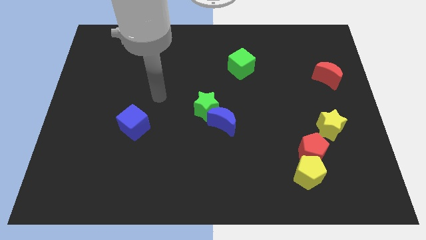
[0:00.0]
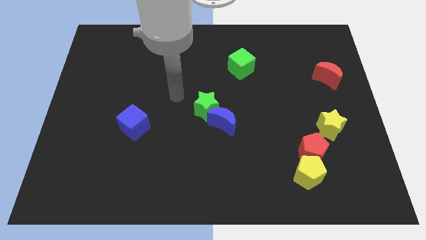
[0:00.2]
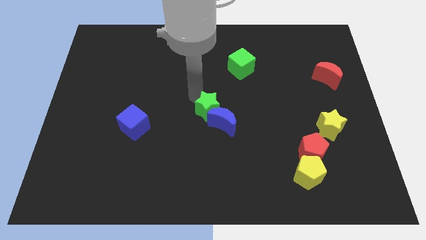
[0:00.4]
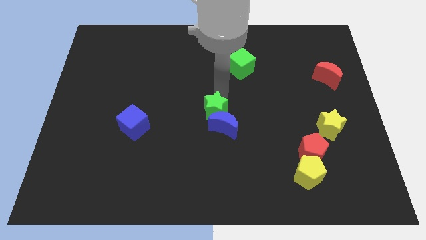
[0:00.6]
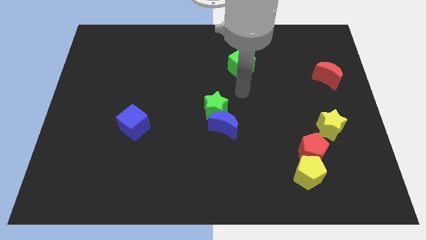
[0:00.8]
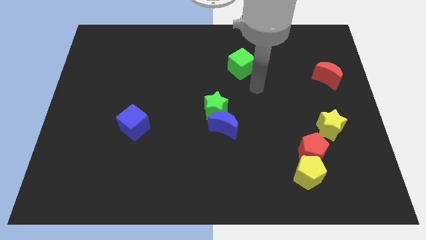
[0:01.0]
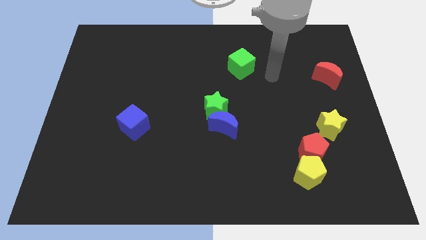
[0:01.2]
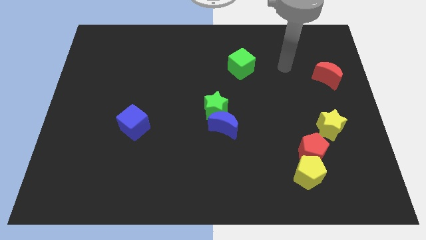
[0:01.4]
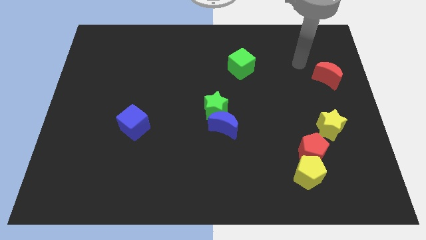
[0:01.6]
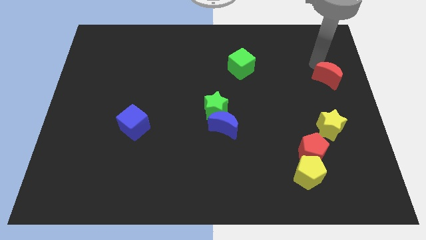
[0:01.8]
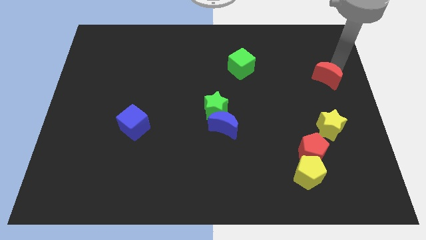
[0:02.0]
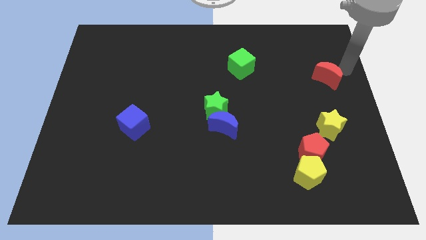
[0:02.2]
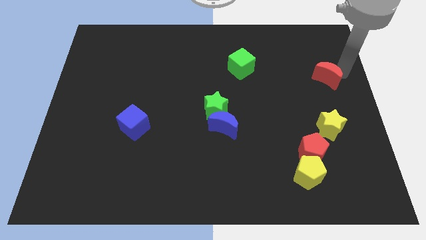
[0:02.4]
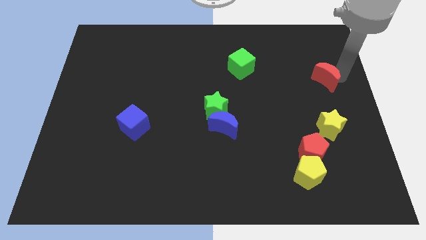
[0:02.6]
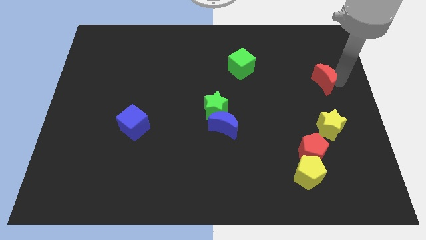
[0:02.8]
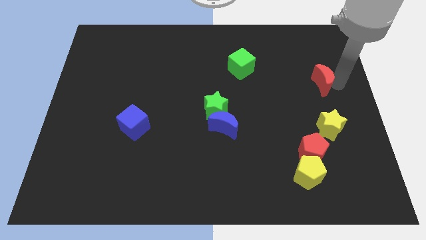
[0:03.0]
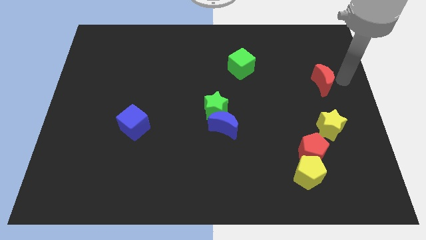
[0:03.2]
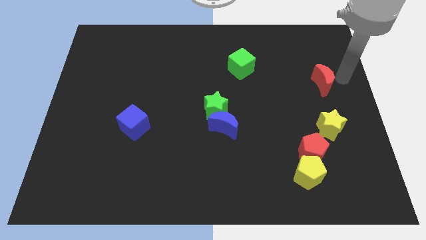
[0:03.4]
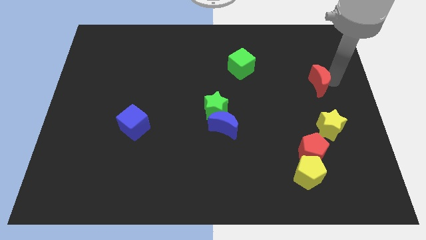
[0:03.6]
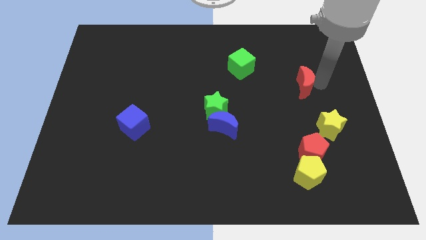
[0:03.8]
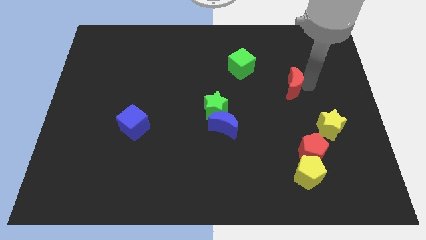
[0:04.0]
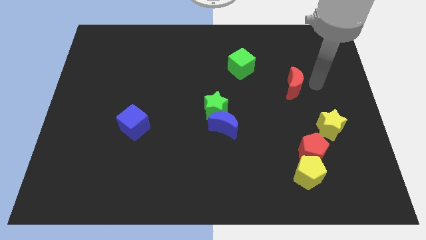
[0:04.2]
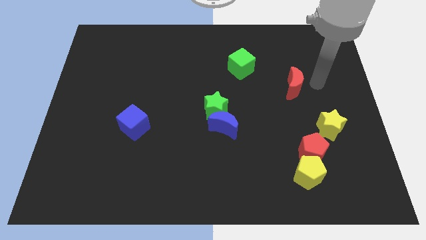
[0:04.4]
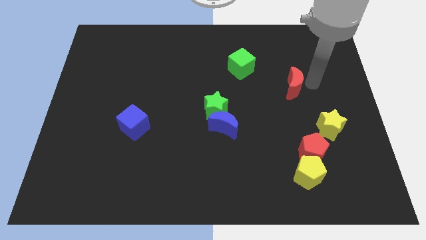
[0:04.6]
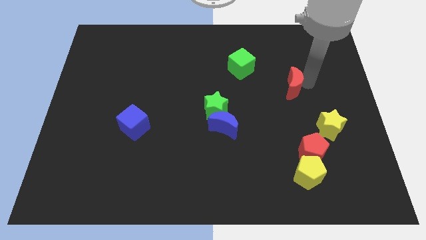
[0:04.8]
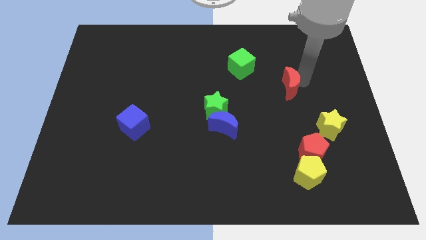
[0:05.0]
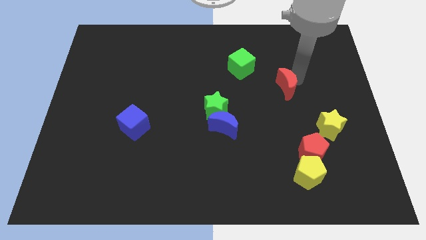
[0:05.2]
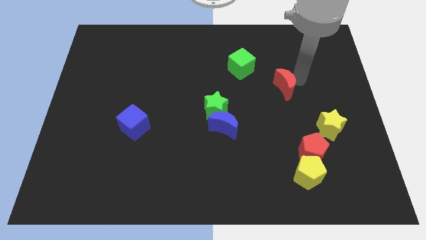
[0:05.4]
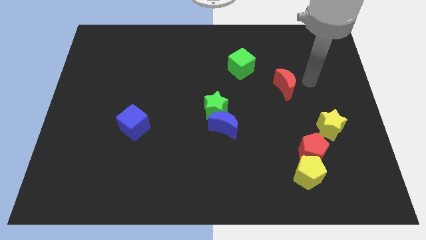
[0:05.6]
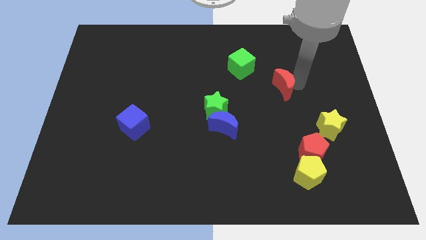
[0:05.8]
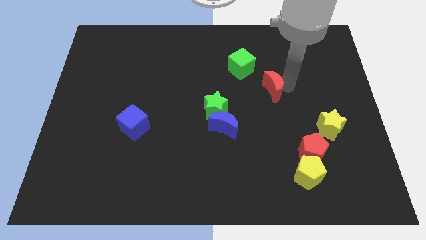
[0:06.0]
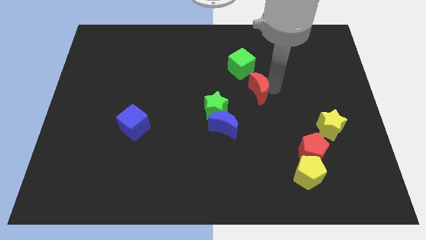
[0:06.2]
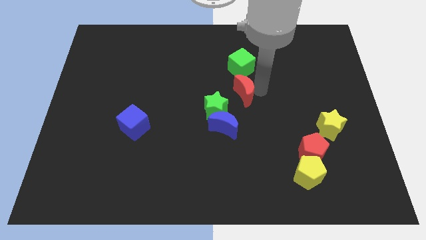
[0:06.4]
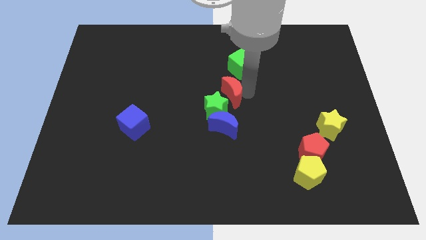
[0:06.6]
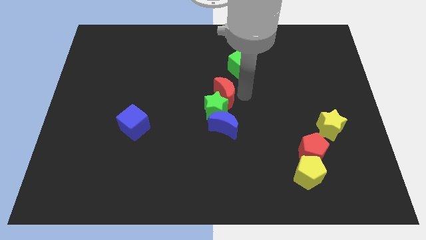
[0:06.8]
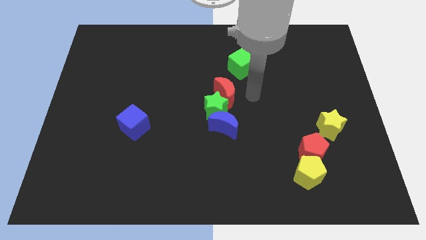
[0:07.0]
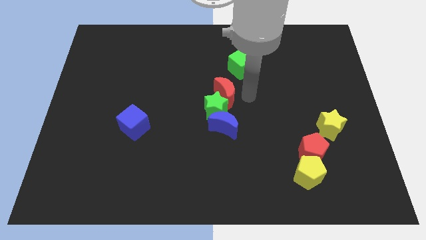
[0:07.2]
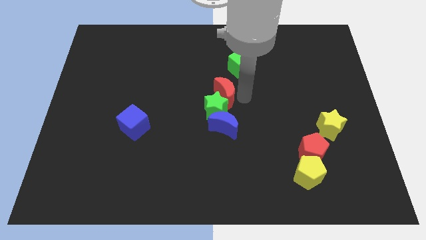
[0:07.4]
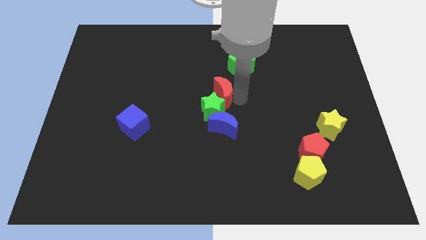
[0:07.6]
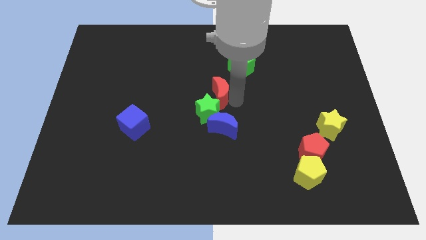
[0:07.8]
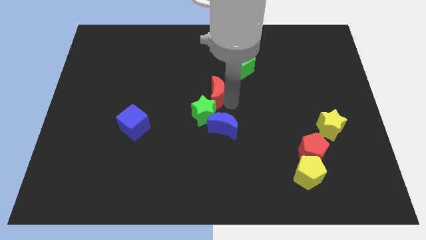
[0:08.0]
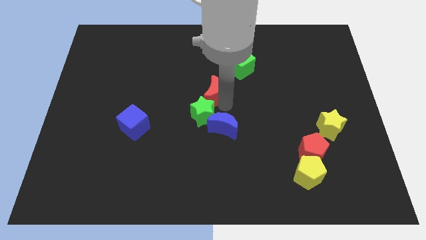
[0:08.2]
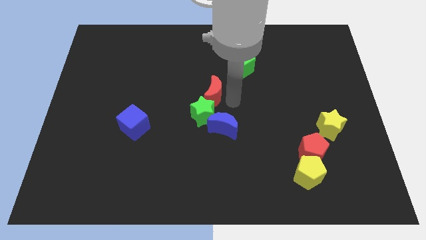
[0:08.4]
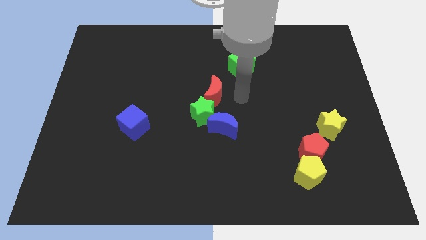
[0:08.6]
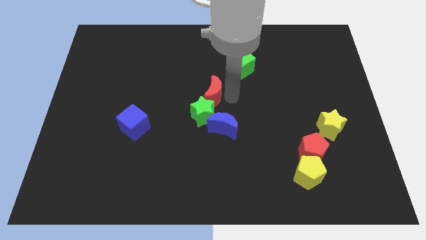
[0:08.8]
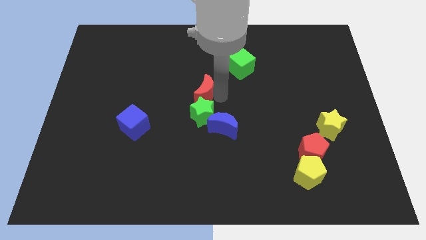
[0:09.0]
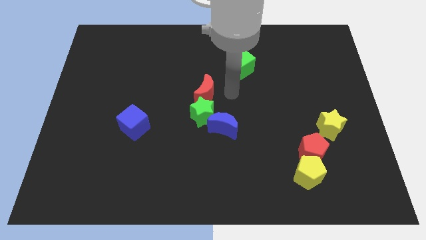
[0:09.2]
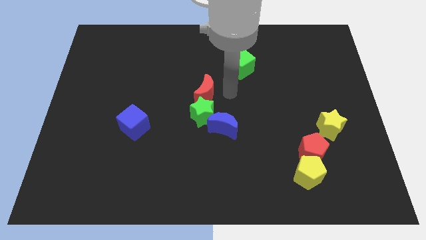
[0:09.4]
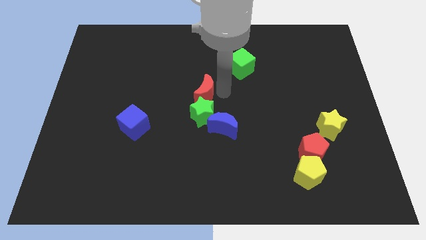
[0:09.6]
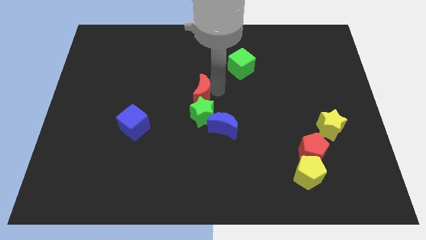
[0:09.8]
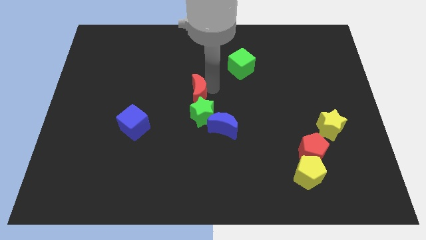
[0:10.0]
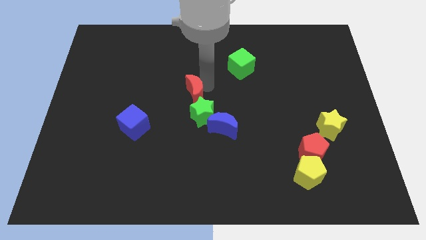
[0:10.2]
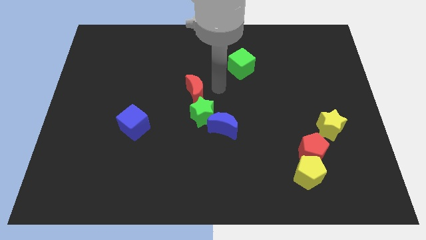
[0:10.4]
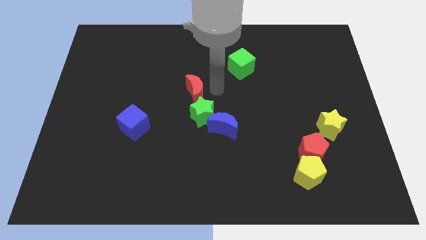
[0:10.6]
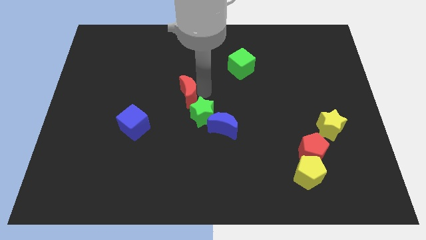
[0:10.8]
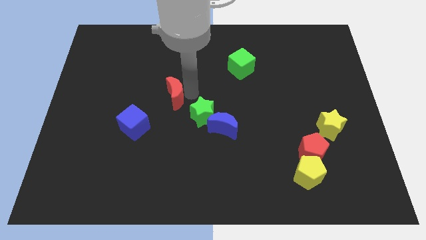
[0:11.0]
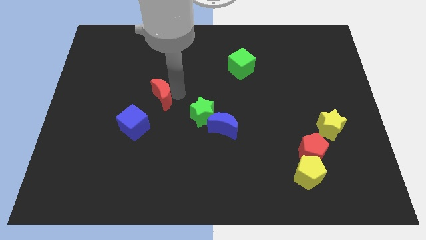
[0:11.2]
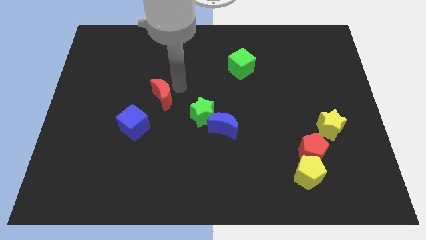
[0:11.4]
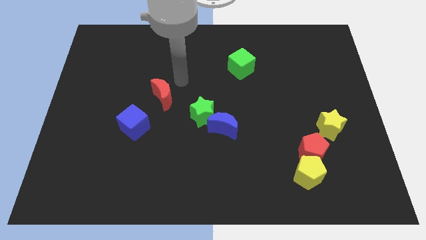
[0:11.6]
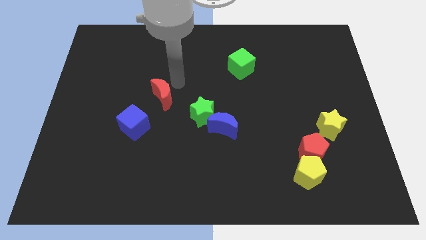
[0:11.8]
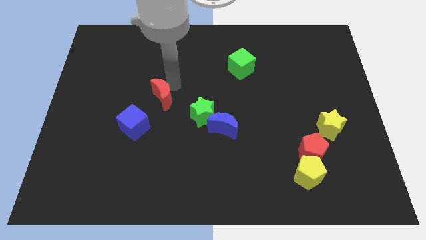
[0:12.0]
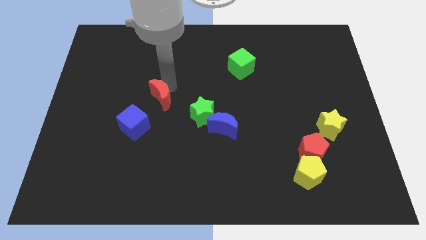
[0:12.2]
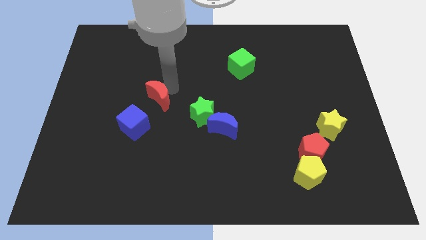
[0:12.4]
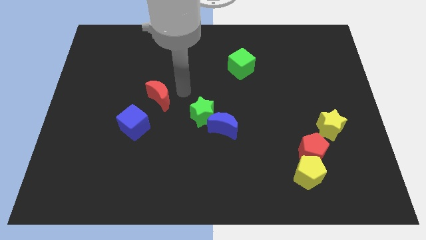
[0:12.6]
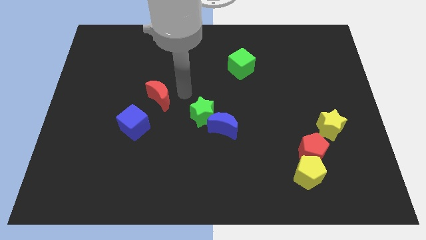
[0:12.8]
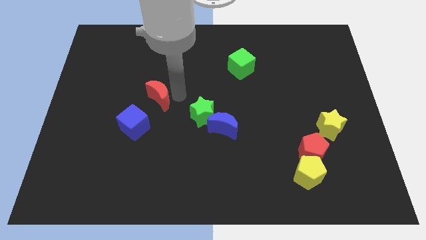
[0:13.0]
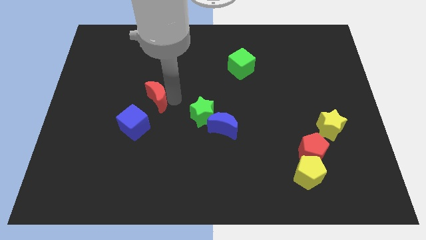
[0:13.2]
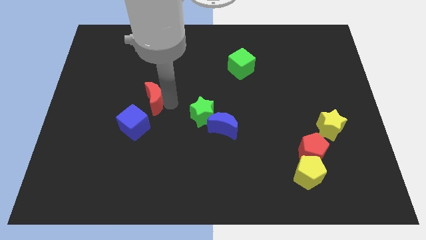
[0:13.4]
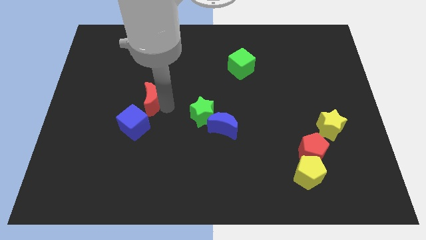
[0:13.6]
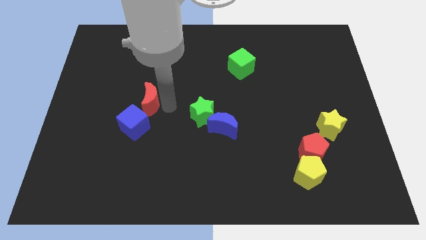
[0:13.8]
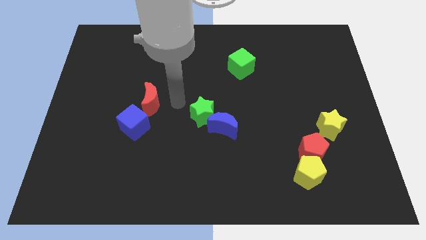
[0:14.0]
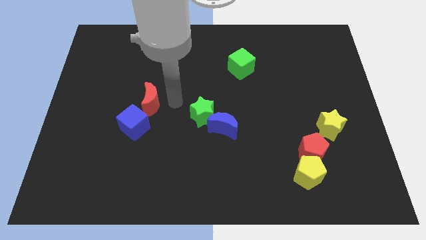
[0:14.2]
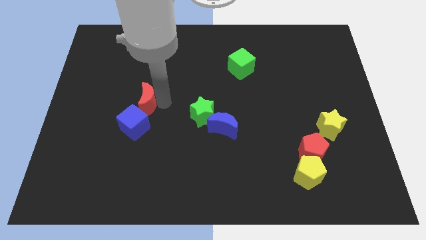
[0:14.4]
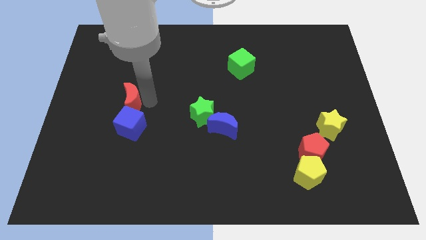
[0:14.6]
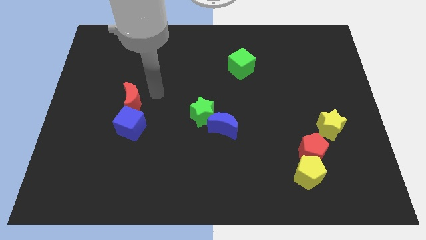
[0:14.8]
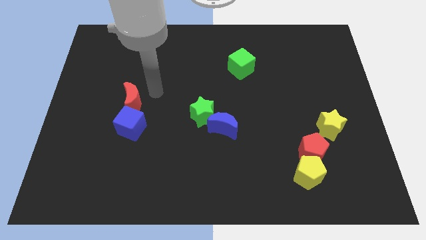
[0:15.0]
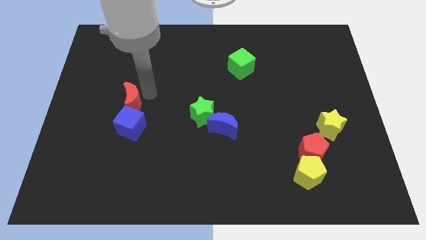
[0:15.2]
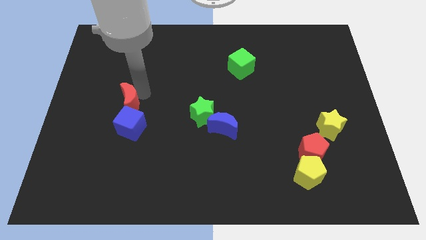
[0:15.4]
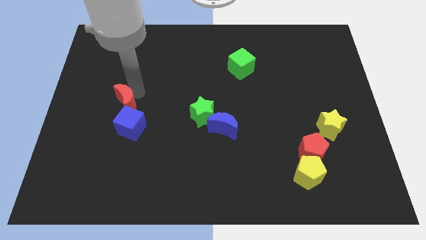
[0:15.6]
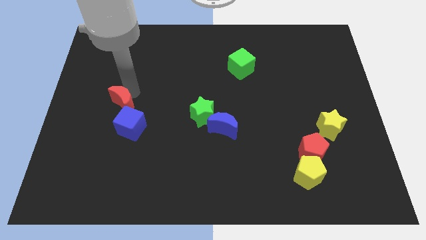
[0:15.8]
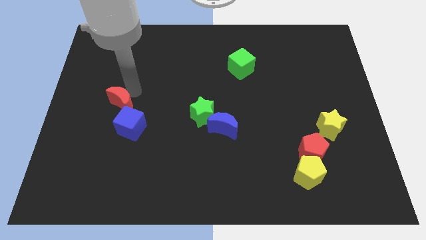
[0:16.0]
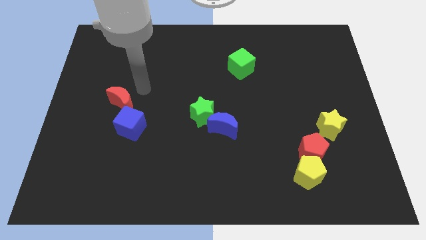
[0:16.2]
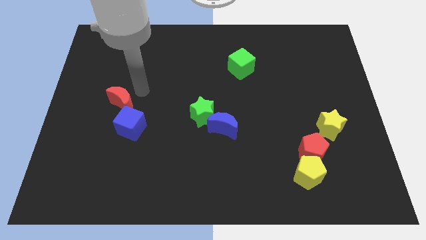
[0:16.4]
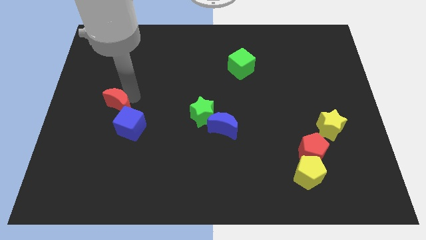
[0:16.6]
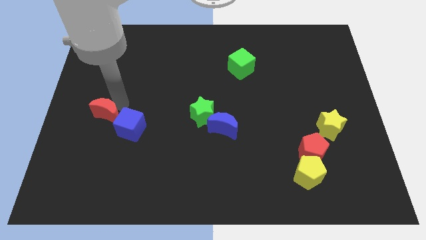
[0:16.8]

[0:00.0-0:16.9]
slide the red moon left of the blue cube
